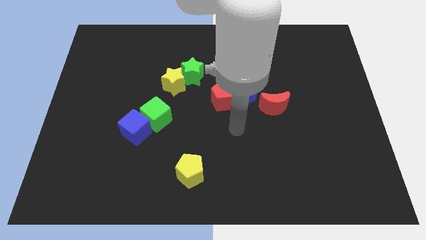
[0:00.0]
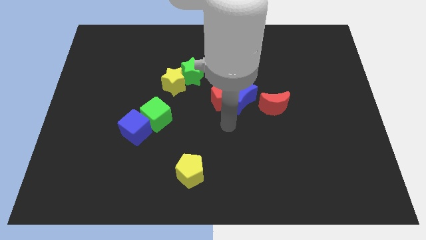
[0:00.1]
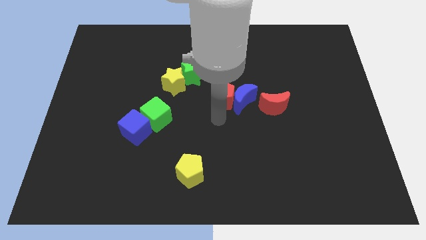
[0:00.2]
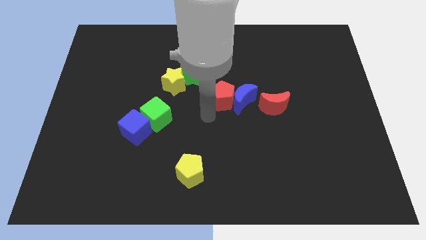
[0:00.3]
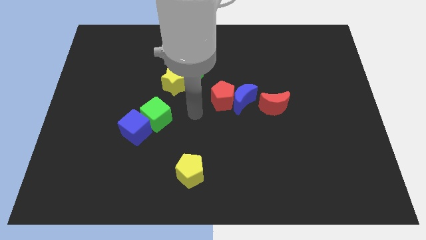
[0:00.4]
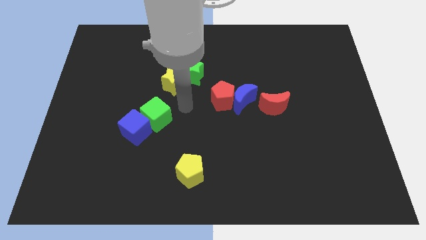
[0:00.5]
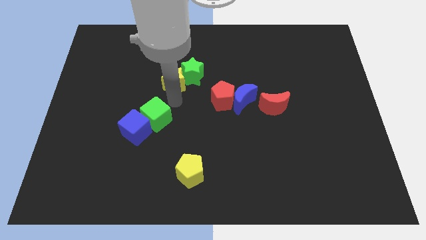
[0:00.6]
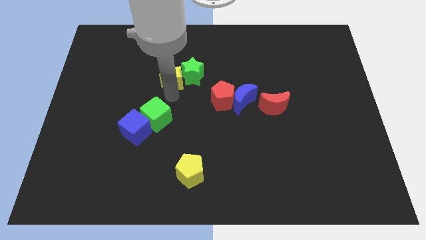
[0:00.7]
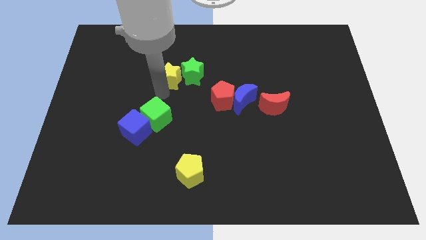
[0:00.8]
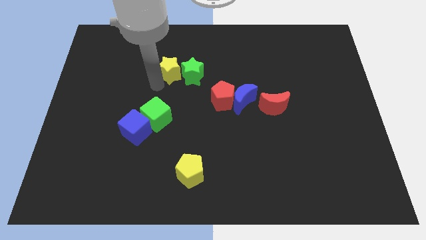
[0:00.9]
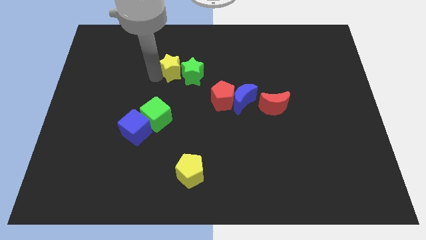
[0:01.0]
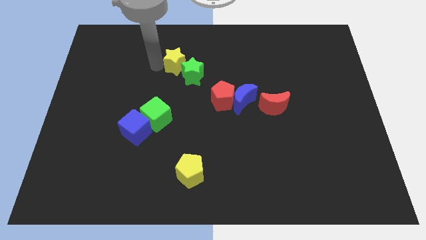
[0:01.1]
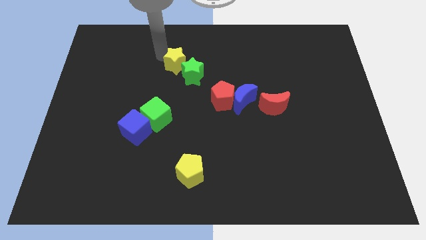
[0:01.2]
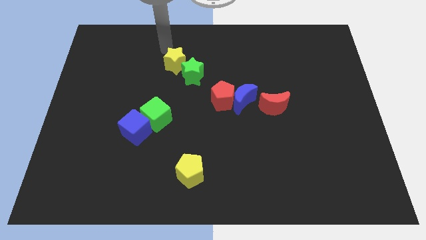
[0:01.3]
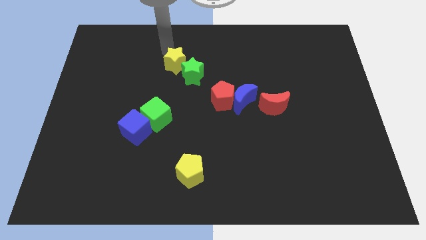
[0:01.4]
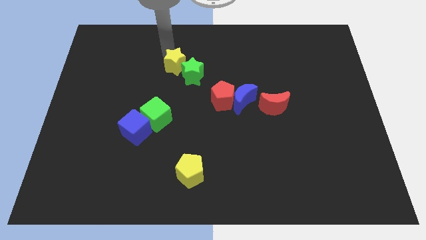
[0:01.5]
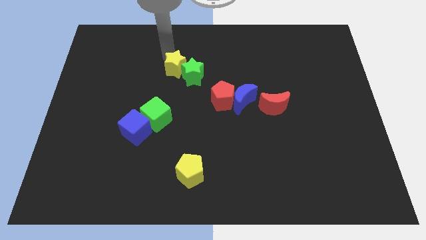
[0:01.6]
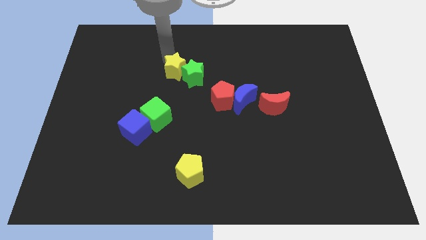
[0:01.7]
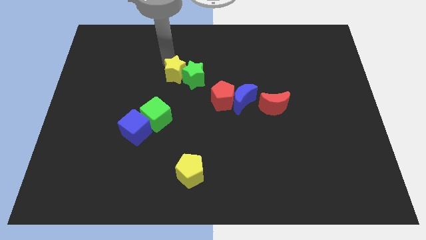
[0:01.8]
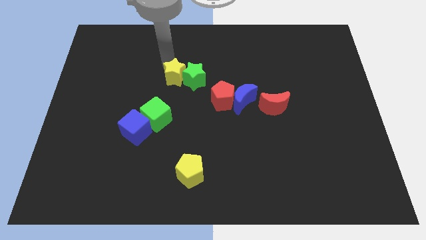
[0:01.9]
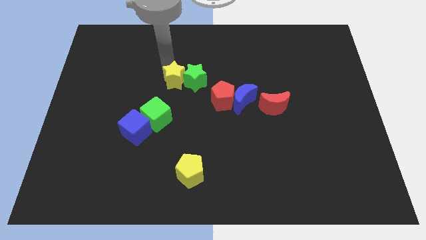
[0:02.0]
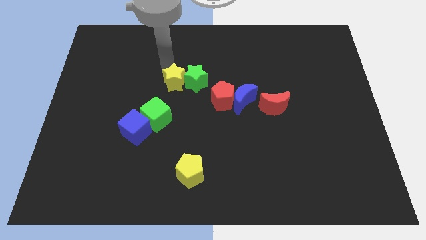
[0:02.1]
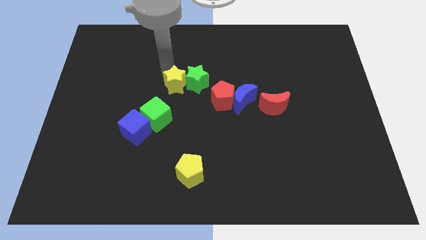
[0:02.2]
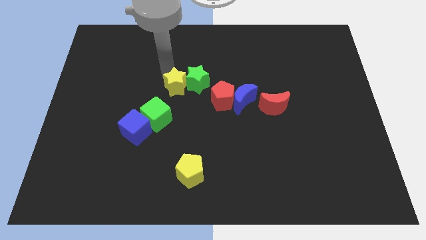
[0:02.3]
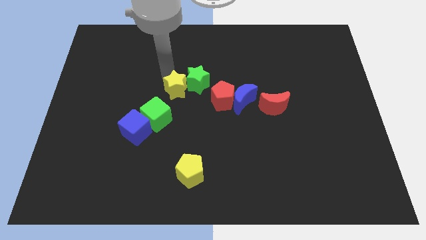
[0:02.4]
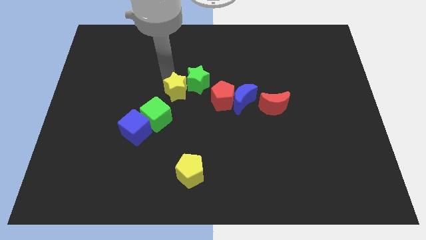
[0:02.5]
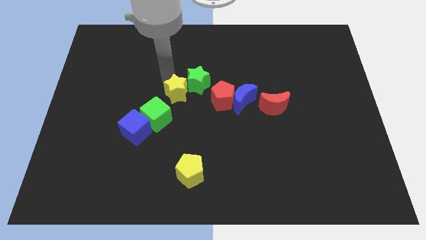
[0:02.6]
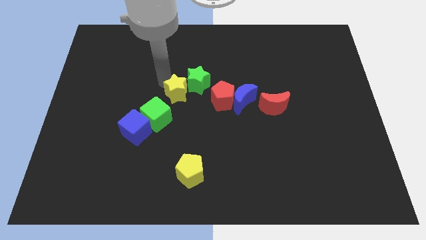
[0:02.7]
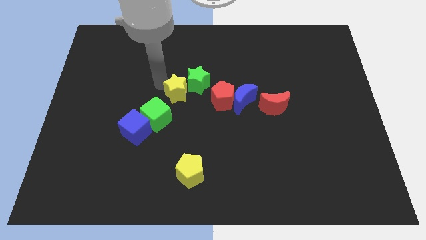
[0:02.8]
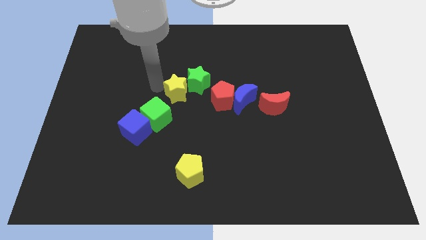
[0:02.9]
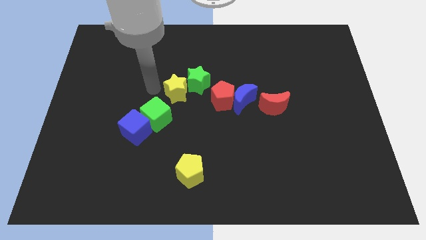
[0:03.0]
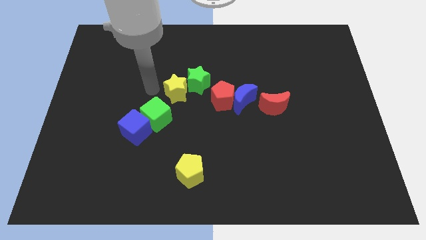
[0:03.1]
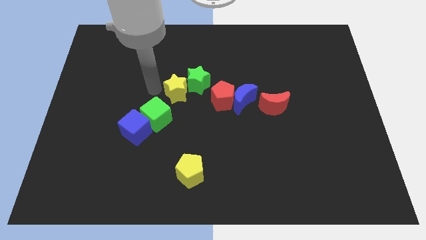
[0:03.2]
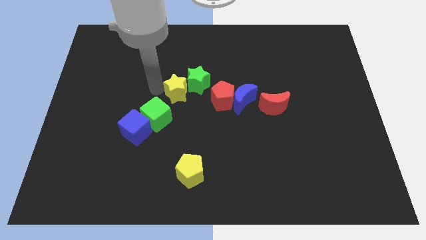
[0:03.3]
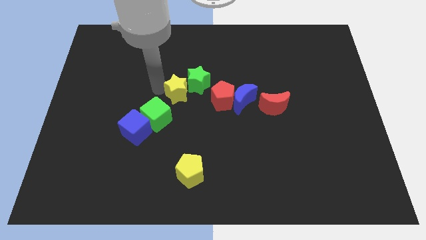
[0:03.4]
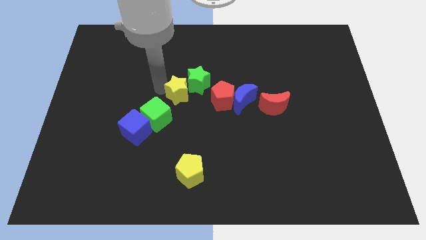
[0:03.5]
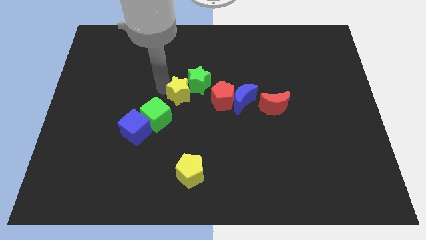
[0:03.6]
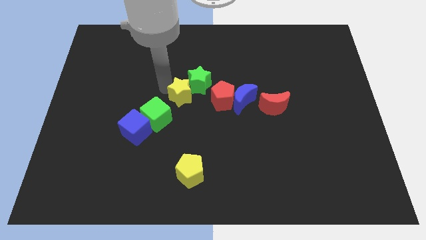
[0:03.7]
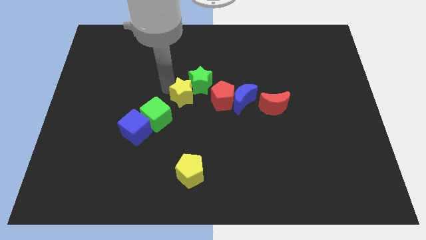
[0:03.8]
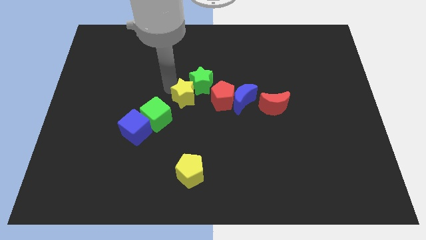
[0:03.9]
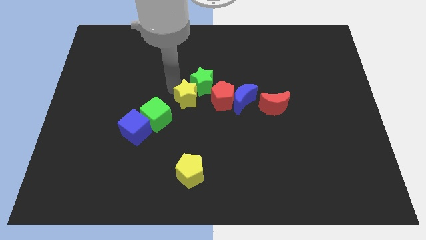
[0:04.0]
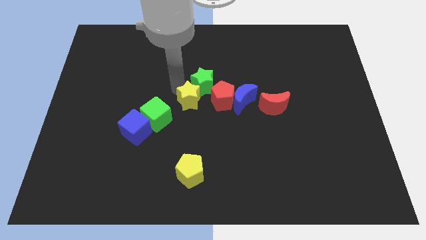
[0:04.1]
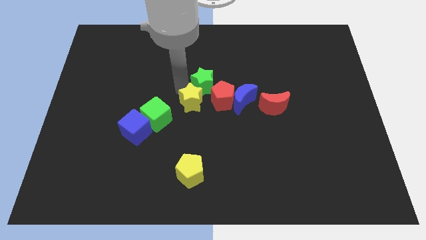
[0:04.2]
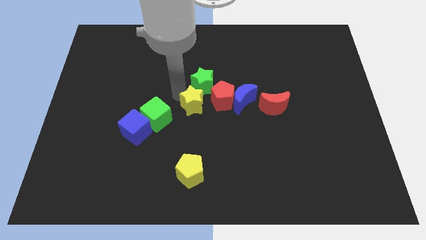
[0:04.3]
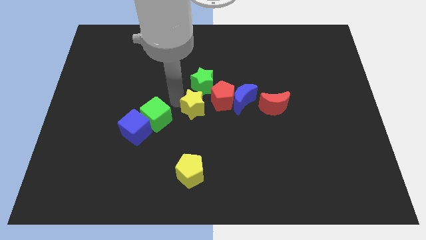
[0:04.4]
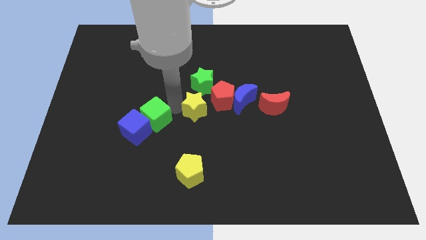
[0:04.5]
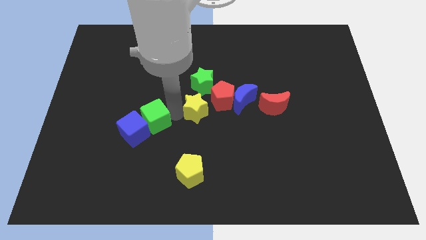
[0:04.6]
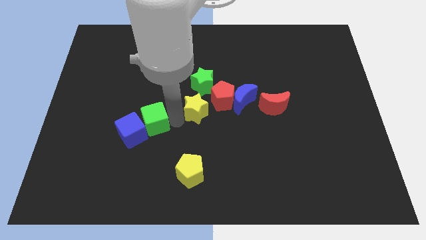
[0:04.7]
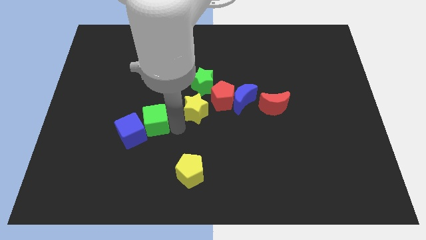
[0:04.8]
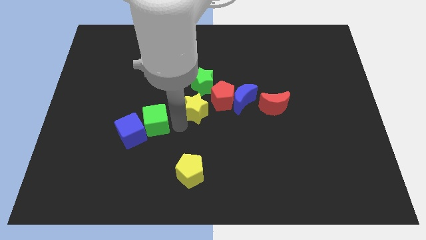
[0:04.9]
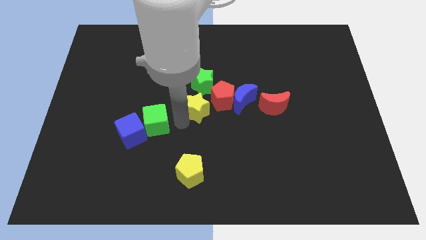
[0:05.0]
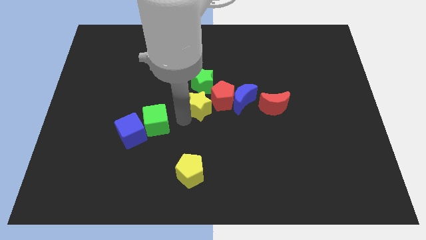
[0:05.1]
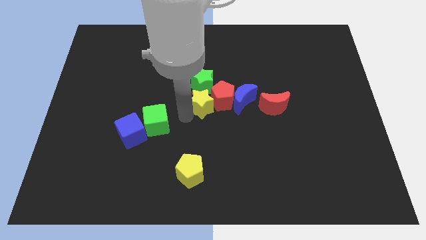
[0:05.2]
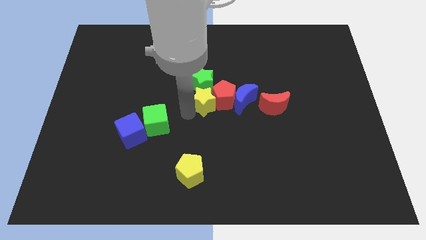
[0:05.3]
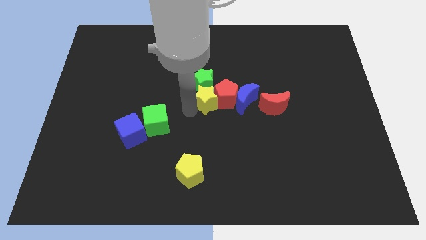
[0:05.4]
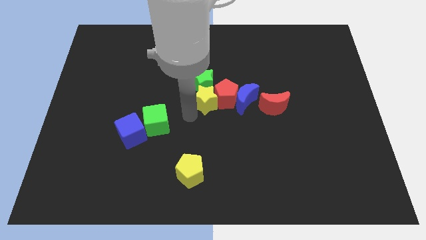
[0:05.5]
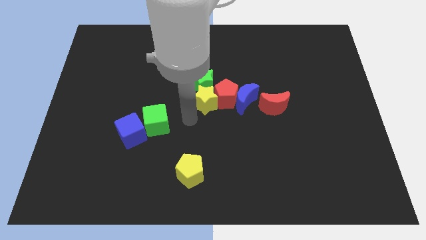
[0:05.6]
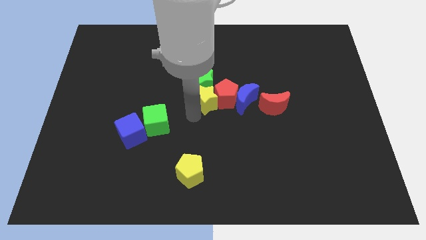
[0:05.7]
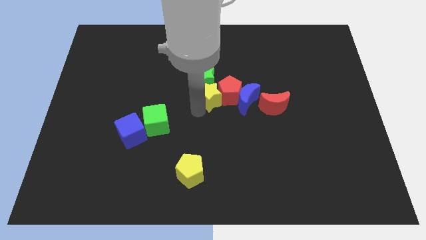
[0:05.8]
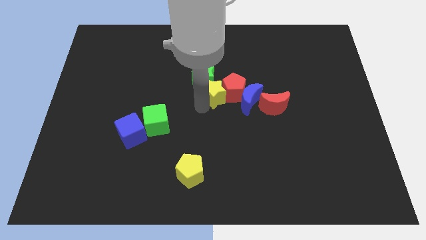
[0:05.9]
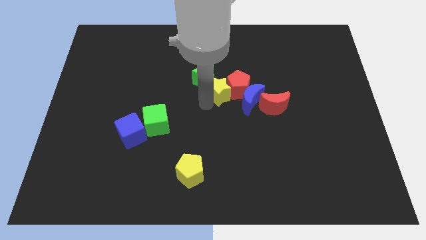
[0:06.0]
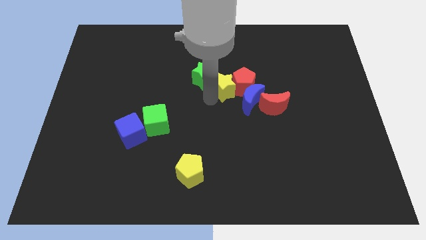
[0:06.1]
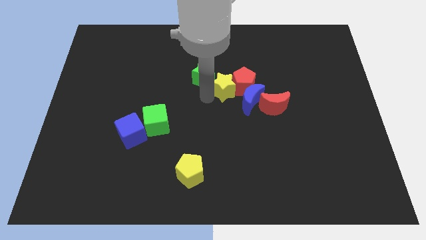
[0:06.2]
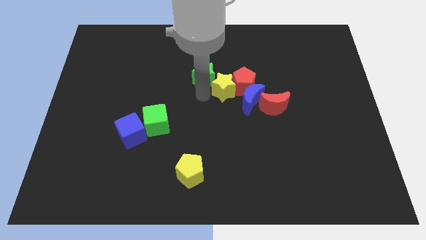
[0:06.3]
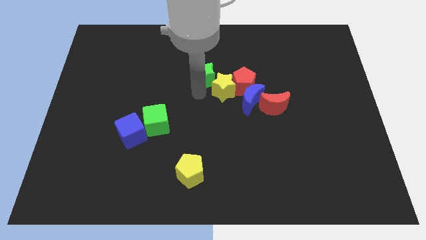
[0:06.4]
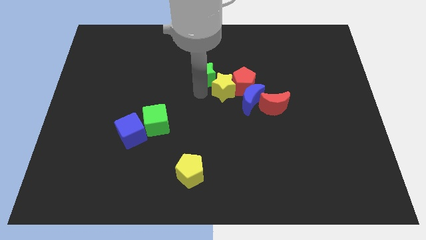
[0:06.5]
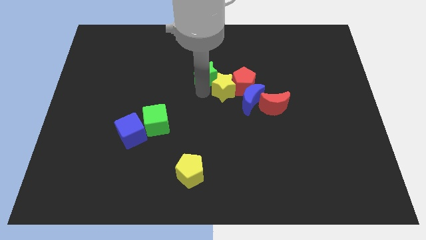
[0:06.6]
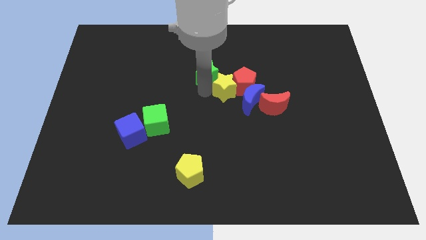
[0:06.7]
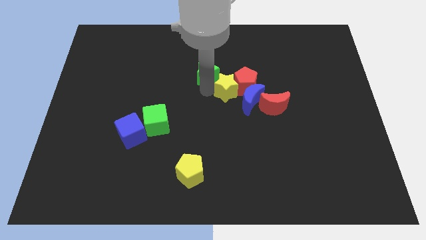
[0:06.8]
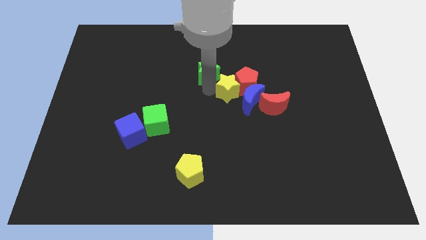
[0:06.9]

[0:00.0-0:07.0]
push the yellow star to the blue moon

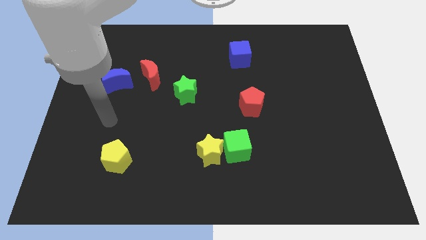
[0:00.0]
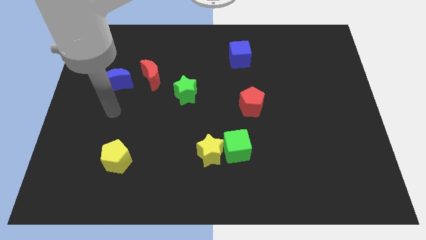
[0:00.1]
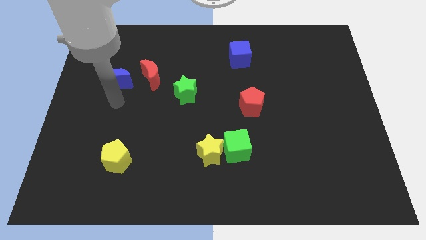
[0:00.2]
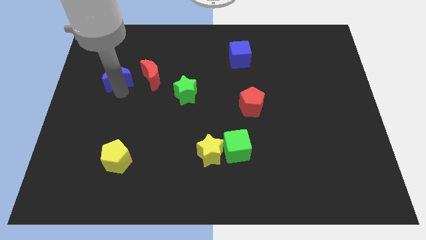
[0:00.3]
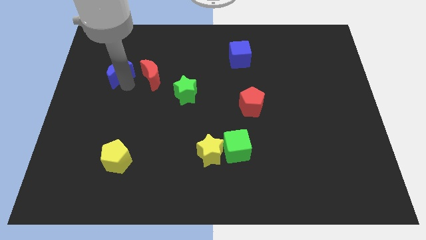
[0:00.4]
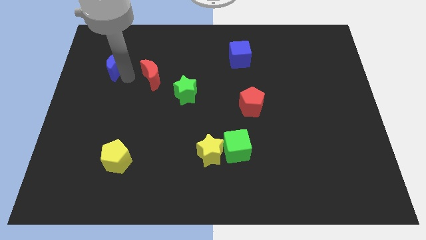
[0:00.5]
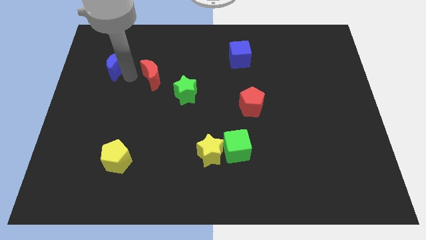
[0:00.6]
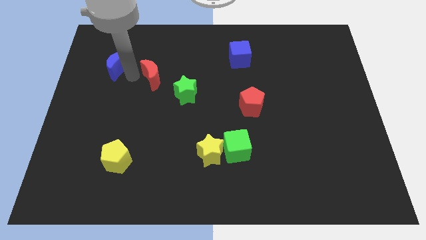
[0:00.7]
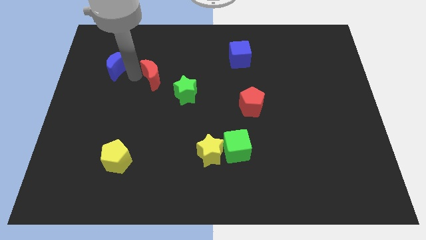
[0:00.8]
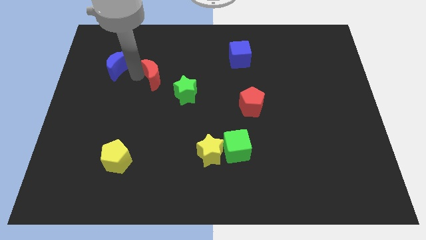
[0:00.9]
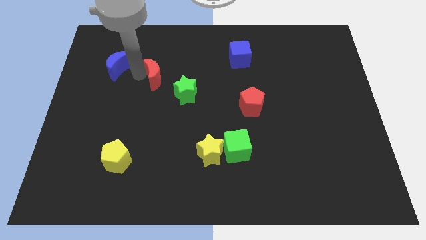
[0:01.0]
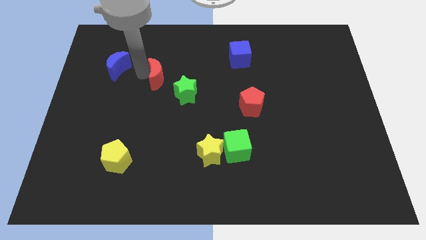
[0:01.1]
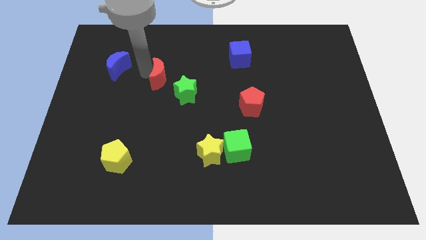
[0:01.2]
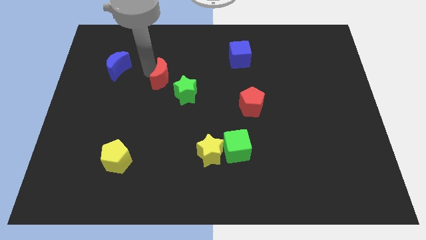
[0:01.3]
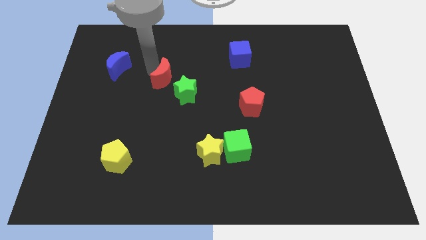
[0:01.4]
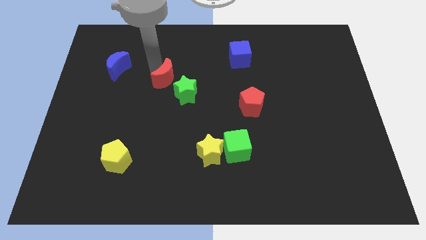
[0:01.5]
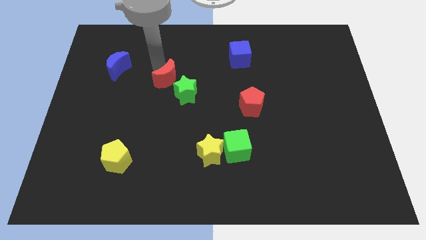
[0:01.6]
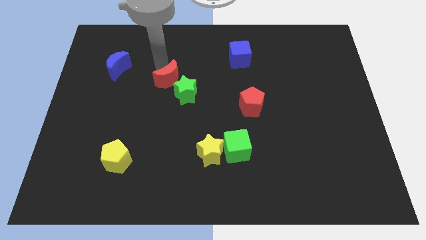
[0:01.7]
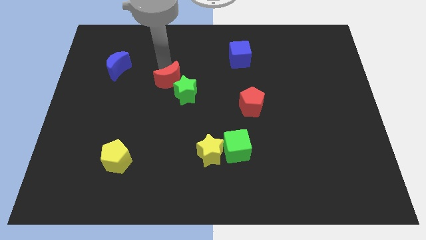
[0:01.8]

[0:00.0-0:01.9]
push the red moon towards the green star
